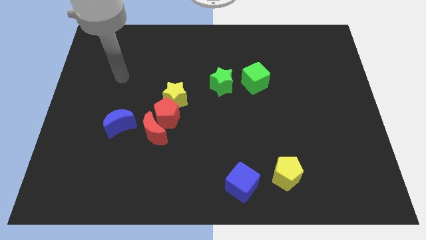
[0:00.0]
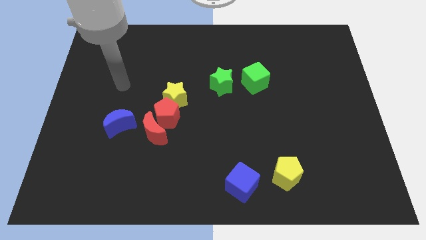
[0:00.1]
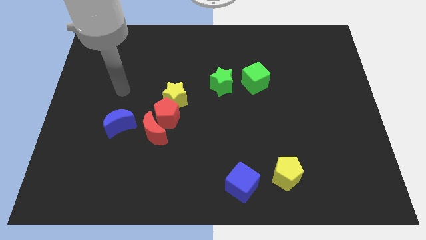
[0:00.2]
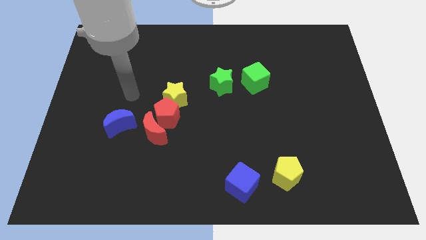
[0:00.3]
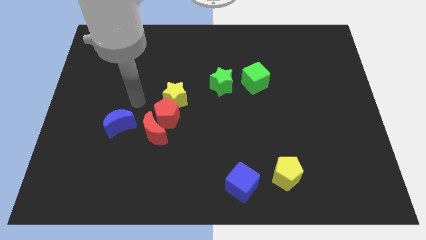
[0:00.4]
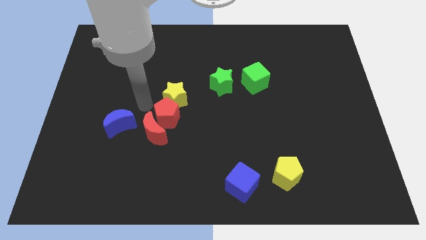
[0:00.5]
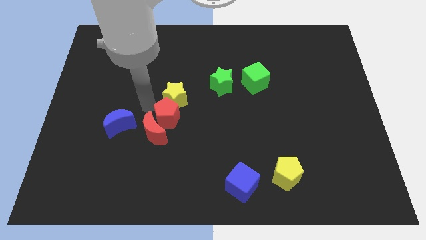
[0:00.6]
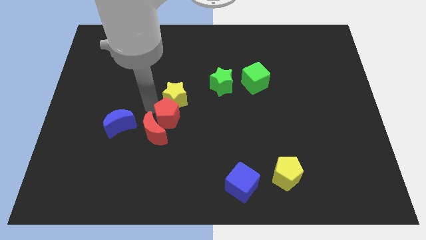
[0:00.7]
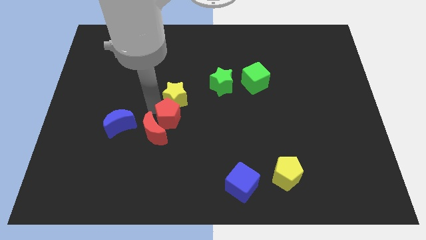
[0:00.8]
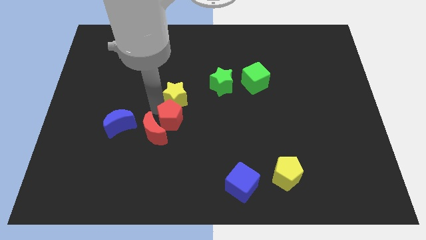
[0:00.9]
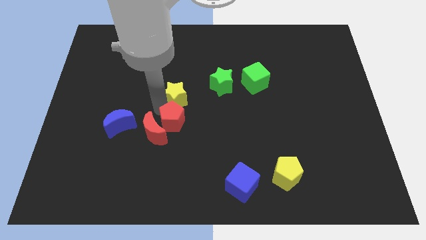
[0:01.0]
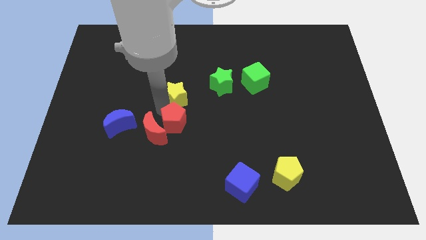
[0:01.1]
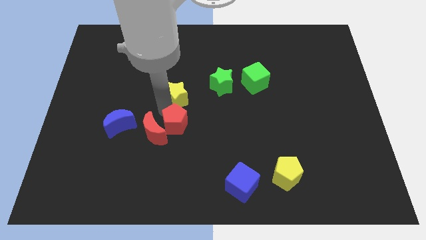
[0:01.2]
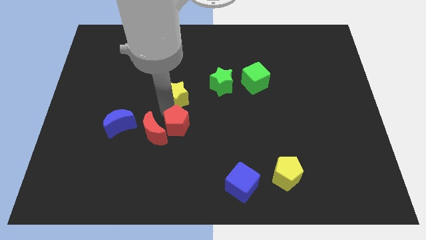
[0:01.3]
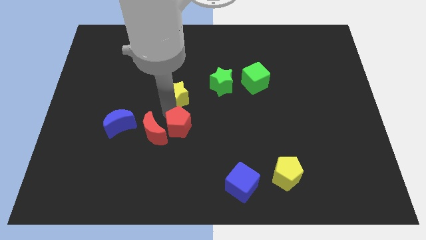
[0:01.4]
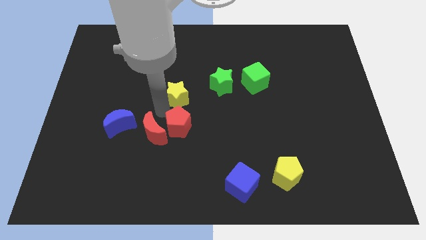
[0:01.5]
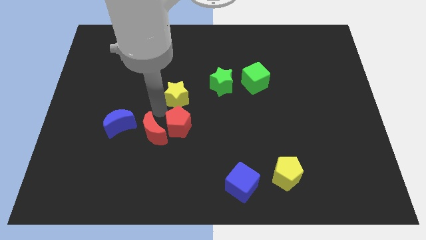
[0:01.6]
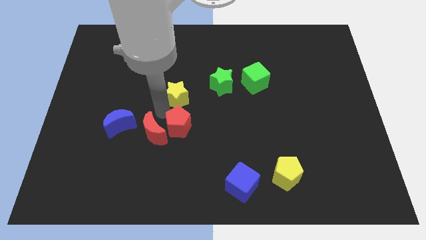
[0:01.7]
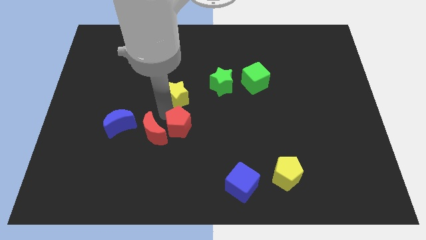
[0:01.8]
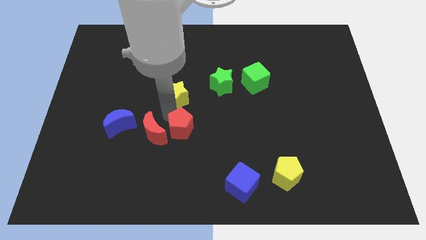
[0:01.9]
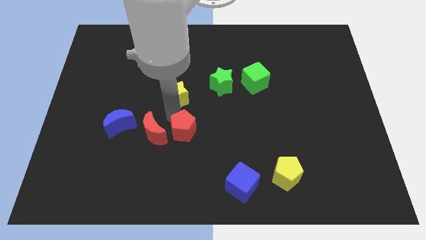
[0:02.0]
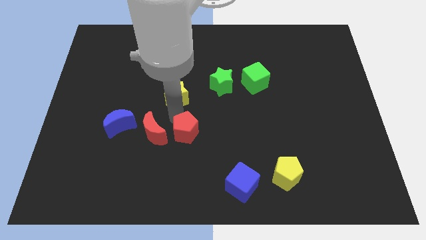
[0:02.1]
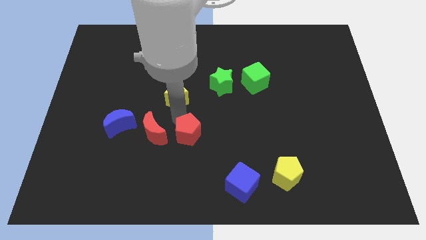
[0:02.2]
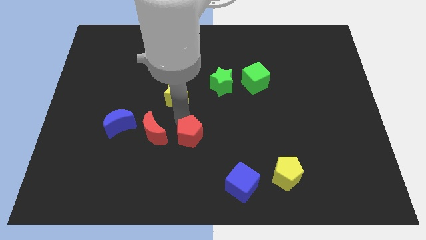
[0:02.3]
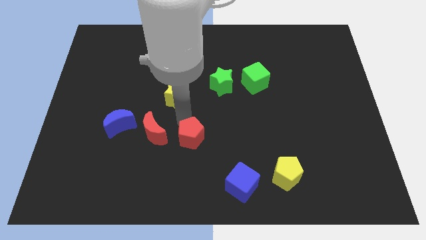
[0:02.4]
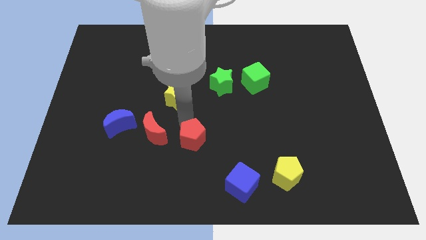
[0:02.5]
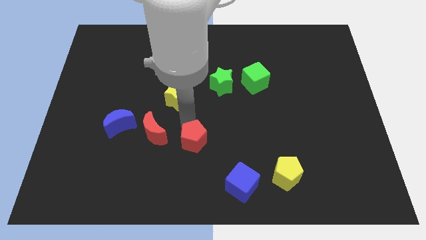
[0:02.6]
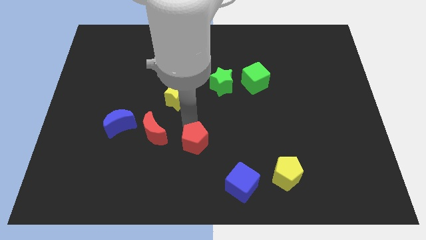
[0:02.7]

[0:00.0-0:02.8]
separate the red pentagon from the red moon and yellow star

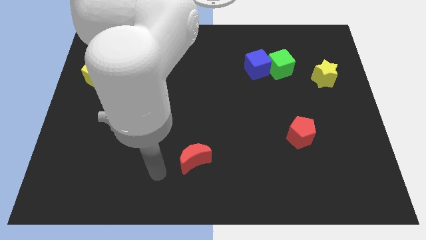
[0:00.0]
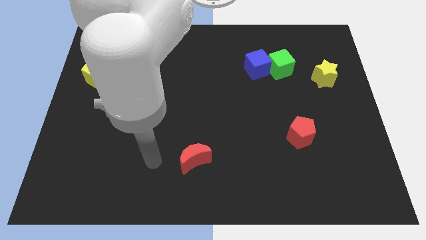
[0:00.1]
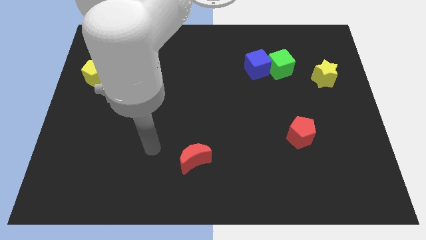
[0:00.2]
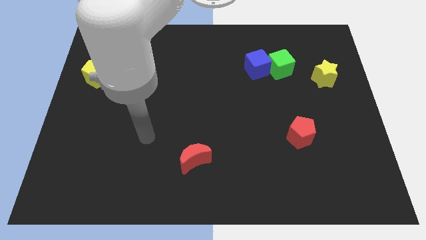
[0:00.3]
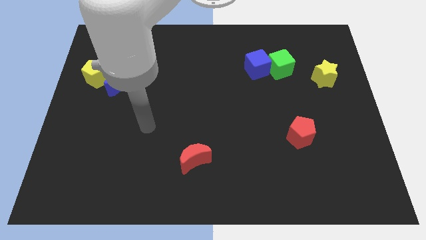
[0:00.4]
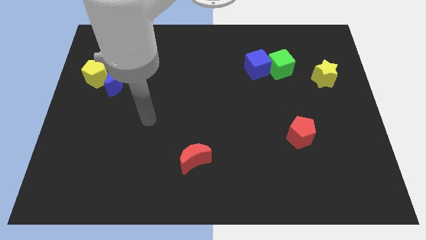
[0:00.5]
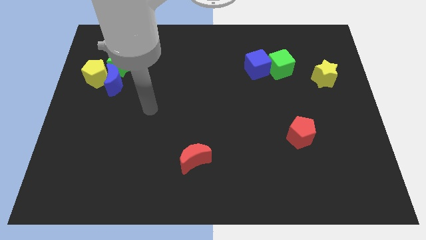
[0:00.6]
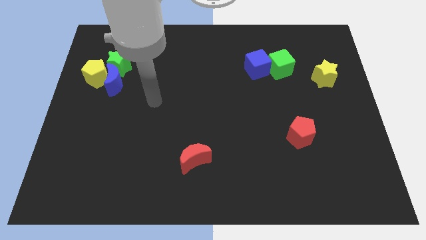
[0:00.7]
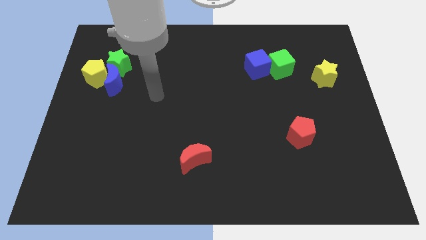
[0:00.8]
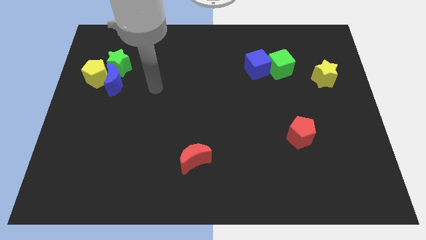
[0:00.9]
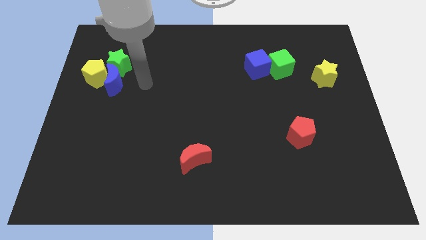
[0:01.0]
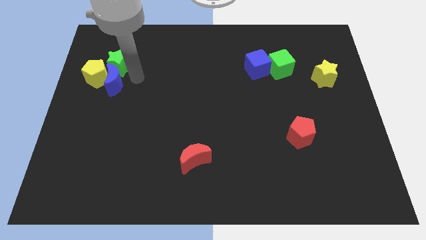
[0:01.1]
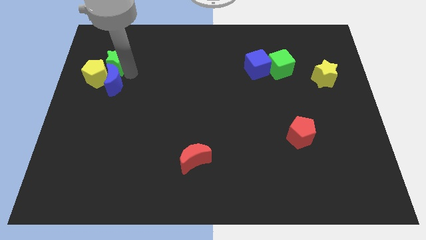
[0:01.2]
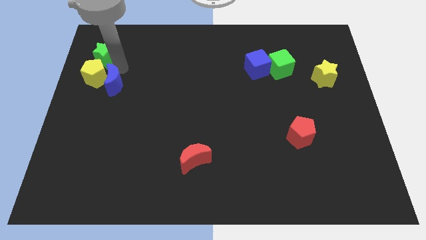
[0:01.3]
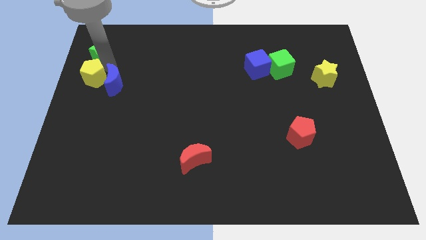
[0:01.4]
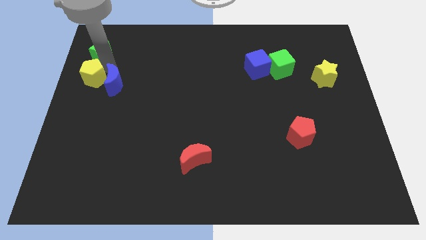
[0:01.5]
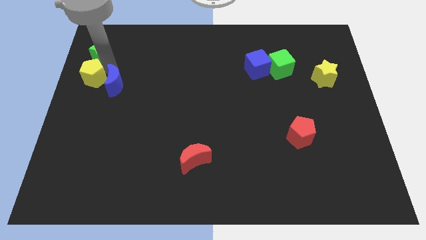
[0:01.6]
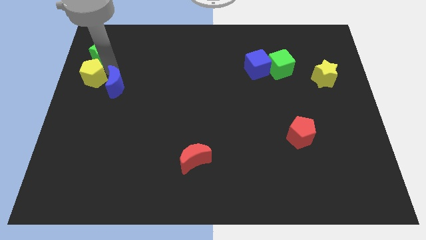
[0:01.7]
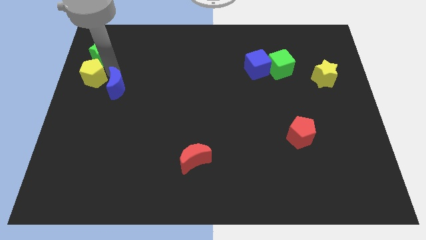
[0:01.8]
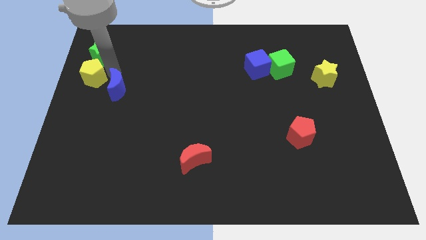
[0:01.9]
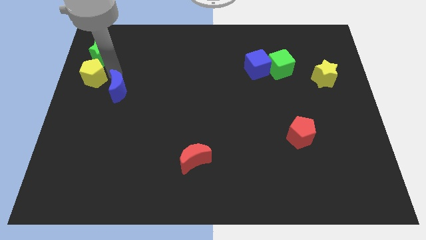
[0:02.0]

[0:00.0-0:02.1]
pull the blue moon apart from the yellow pentagon and green star

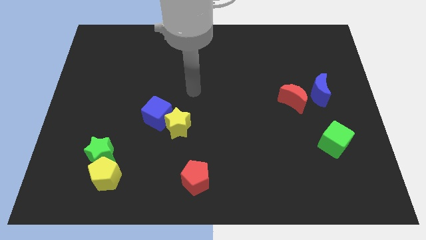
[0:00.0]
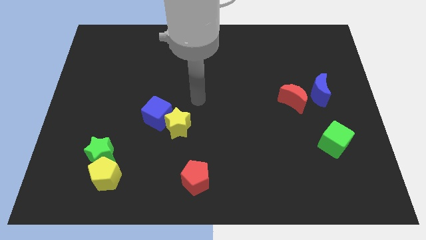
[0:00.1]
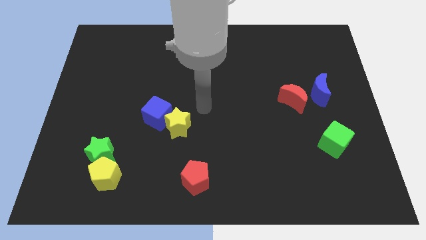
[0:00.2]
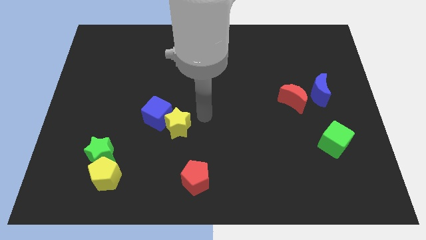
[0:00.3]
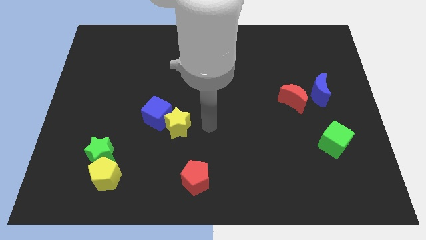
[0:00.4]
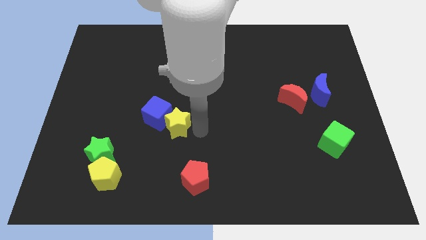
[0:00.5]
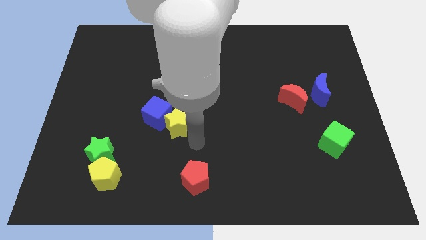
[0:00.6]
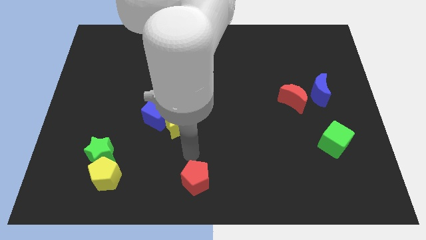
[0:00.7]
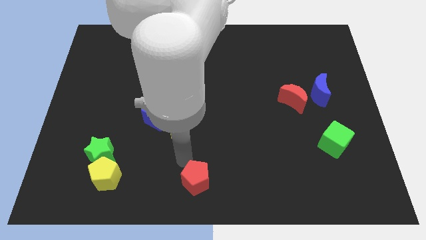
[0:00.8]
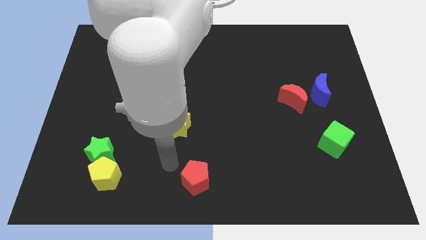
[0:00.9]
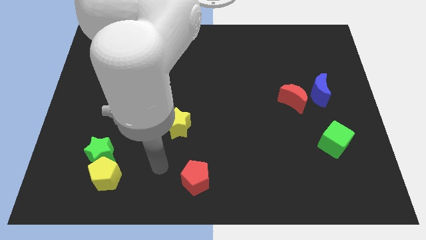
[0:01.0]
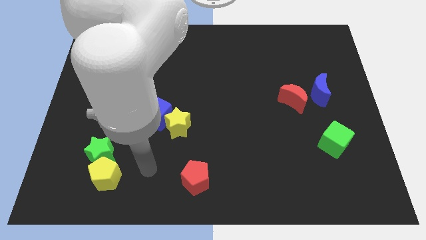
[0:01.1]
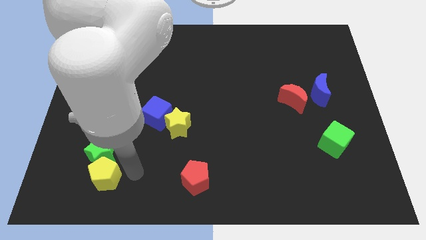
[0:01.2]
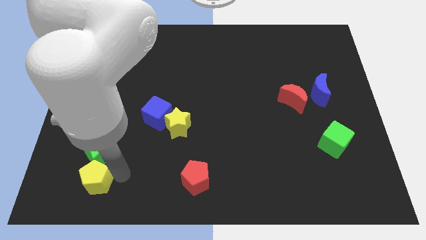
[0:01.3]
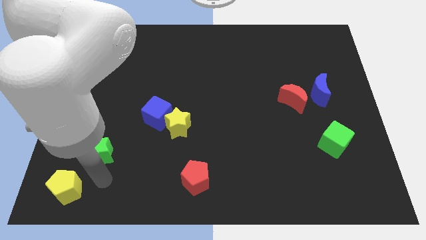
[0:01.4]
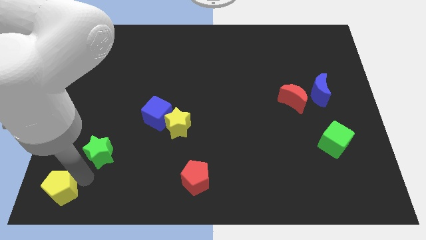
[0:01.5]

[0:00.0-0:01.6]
pull the green star apart from the yellow pentagon

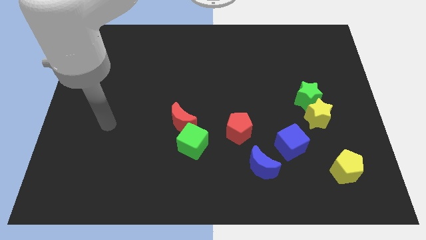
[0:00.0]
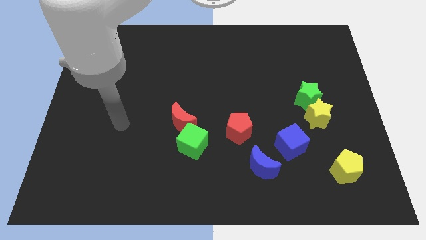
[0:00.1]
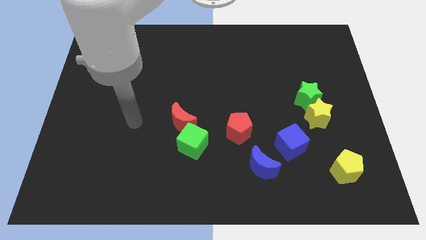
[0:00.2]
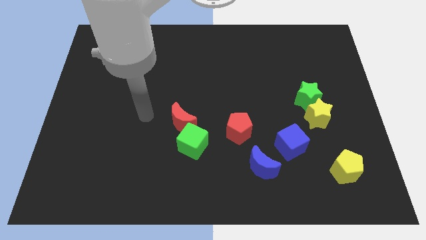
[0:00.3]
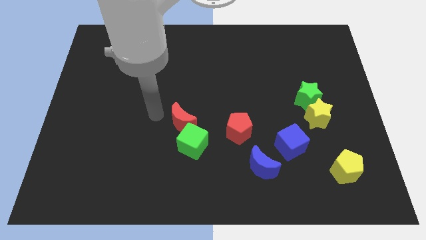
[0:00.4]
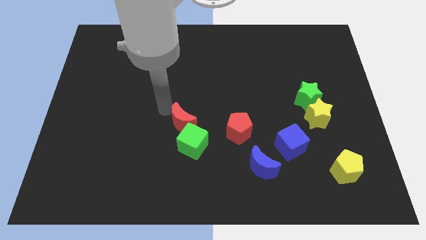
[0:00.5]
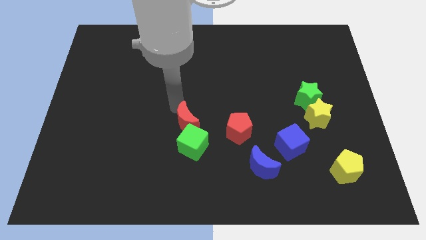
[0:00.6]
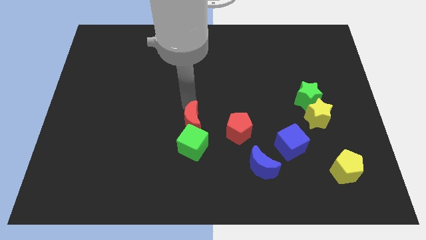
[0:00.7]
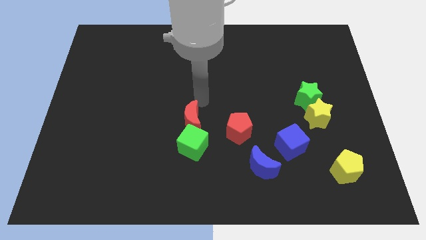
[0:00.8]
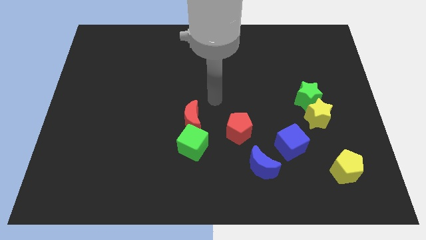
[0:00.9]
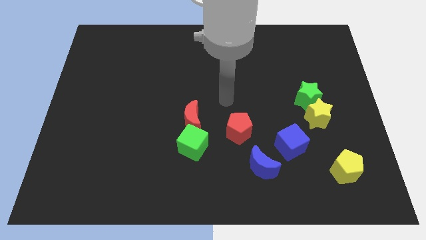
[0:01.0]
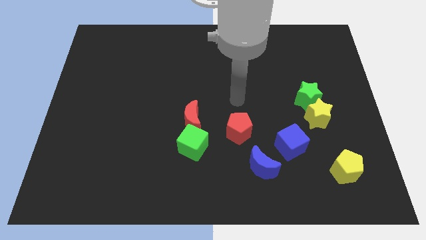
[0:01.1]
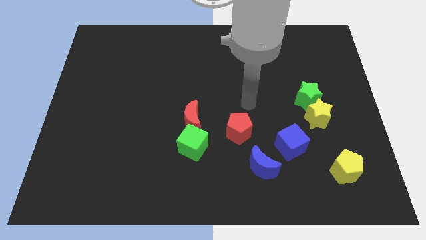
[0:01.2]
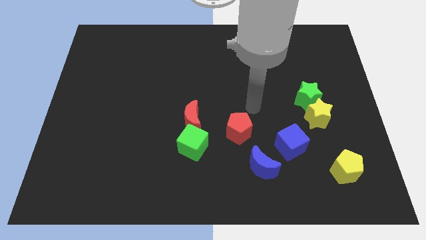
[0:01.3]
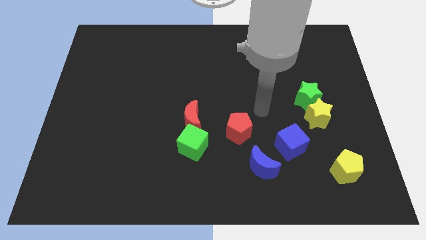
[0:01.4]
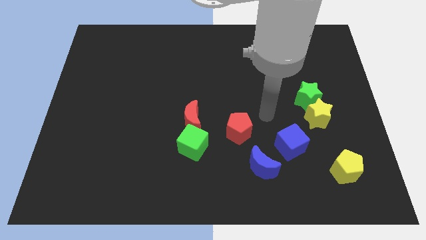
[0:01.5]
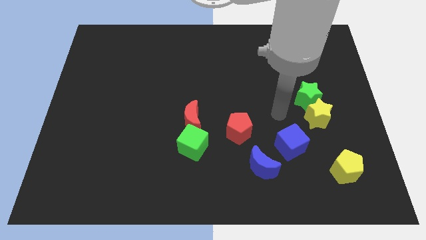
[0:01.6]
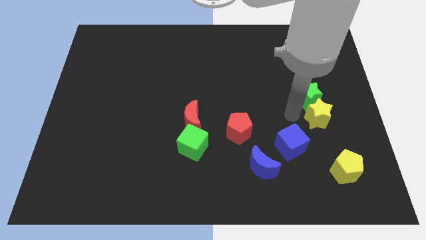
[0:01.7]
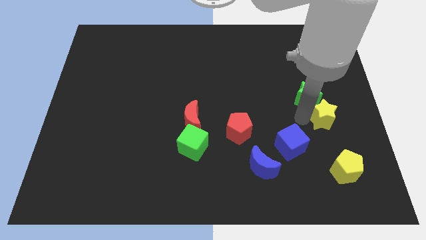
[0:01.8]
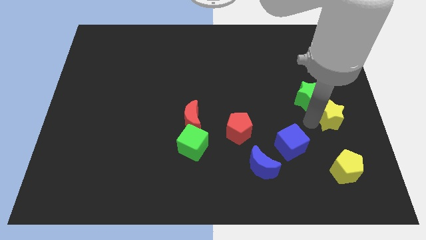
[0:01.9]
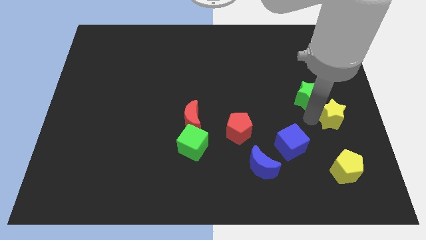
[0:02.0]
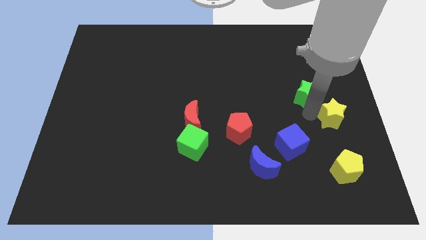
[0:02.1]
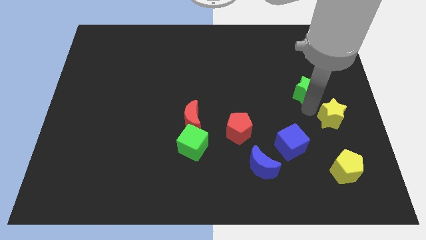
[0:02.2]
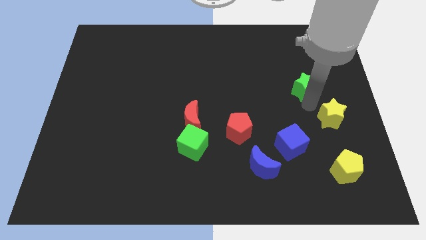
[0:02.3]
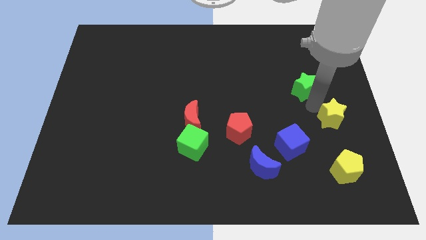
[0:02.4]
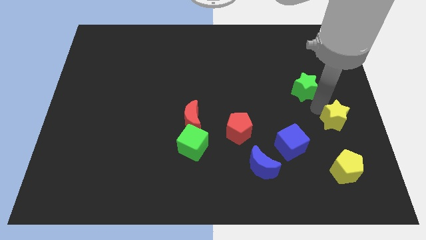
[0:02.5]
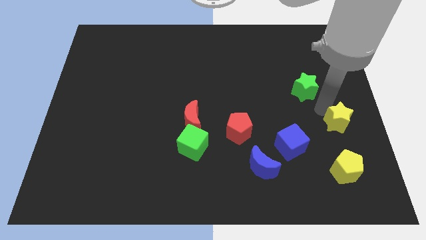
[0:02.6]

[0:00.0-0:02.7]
move the green star away from the yellow star
